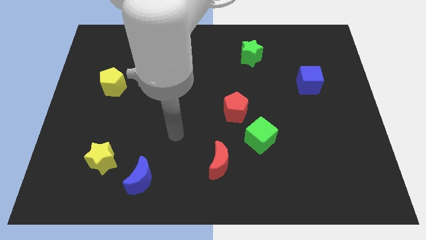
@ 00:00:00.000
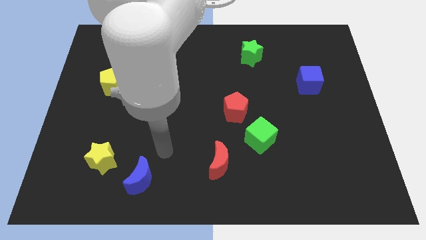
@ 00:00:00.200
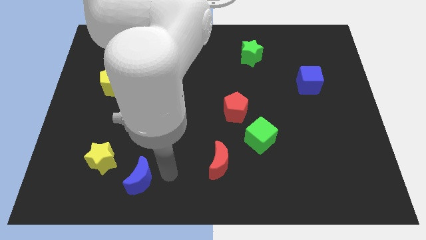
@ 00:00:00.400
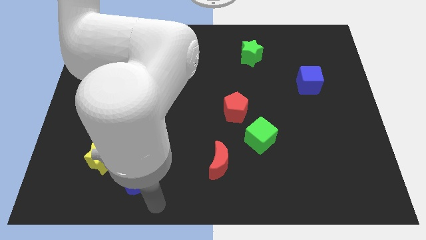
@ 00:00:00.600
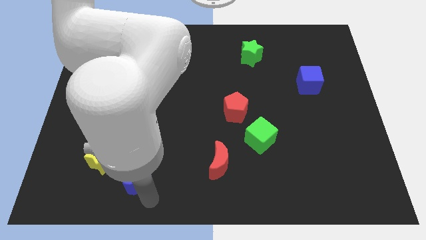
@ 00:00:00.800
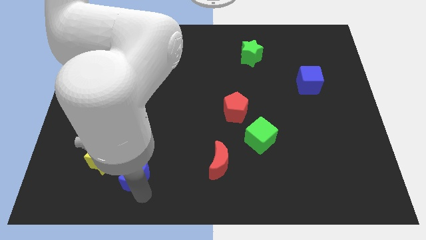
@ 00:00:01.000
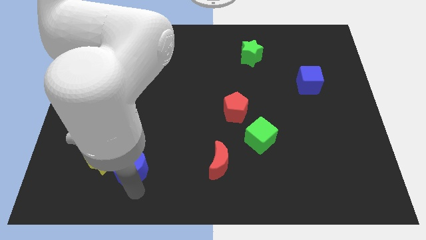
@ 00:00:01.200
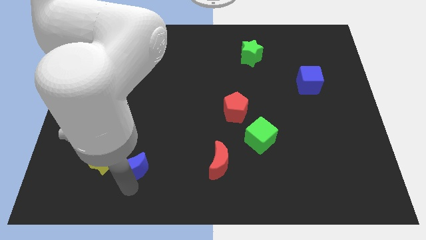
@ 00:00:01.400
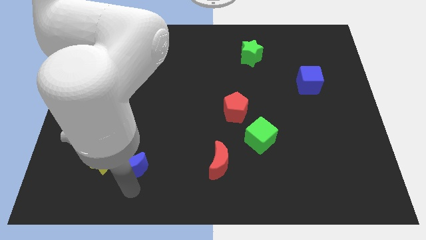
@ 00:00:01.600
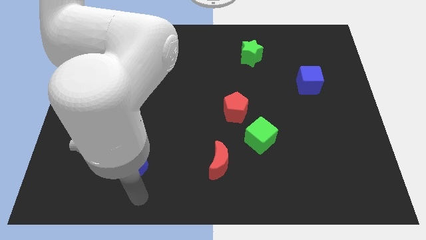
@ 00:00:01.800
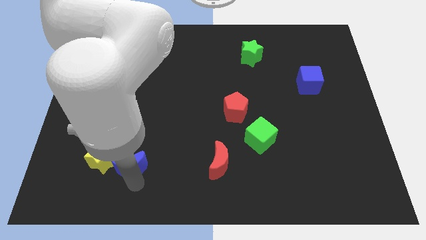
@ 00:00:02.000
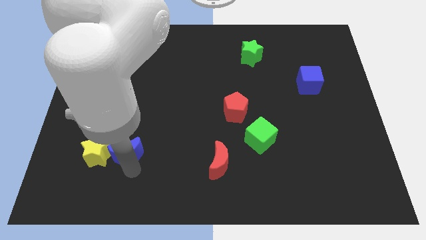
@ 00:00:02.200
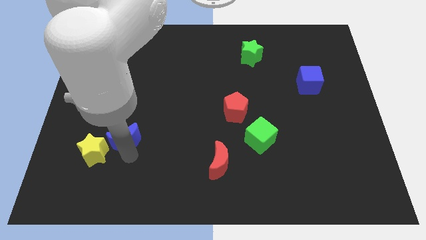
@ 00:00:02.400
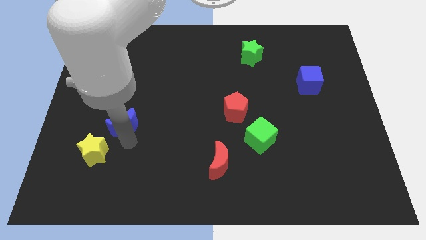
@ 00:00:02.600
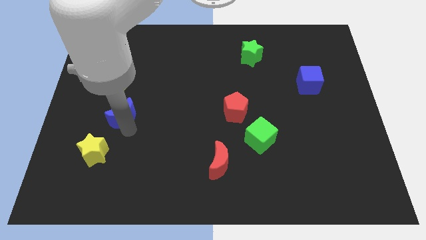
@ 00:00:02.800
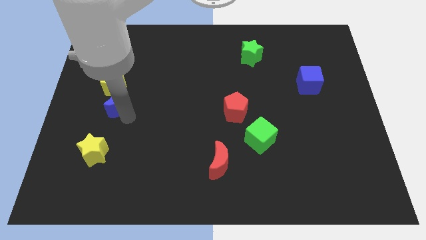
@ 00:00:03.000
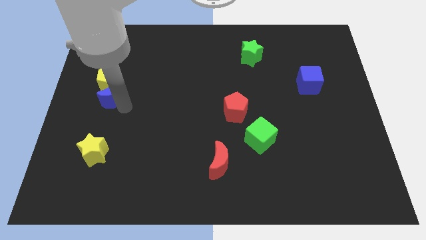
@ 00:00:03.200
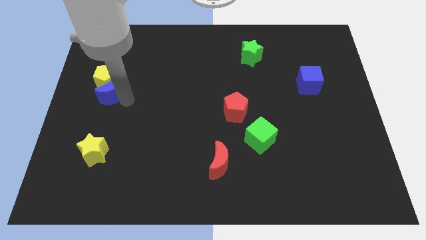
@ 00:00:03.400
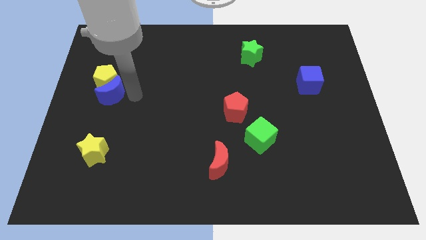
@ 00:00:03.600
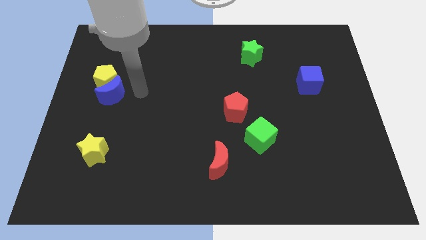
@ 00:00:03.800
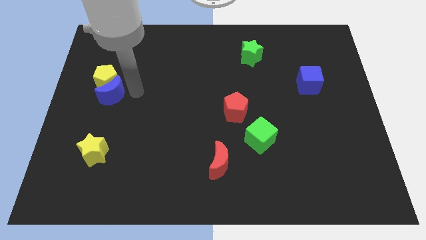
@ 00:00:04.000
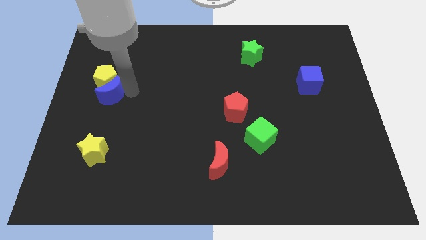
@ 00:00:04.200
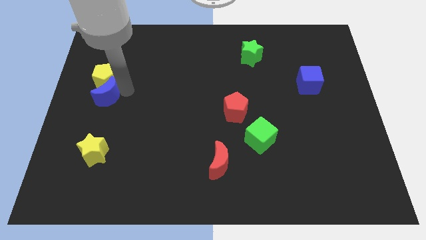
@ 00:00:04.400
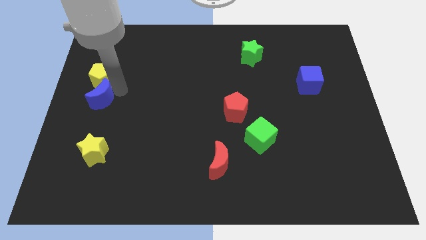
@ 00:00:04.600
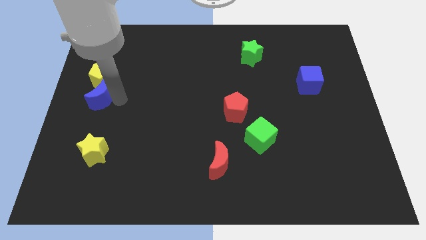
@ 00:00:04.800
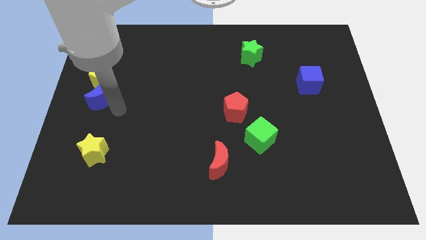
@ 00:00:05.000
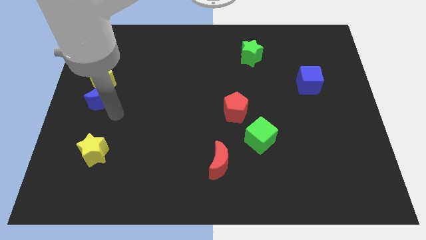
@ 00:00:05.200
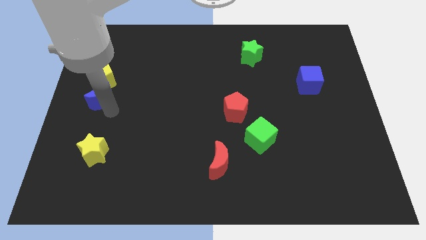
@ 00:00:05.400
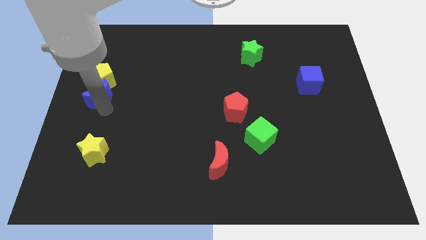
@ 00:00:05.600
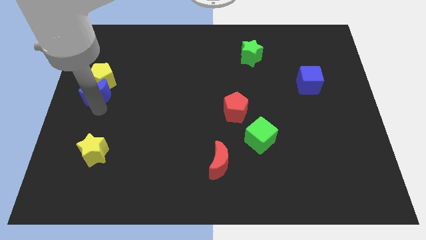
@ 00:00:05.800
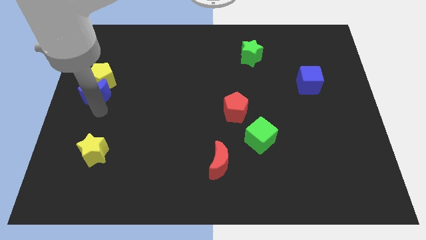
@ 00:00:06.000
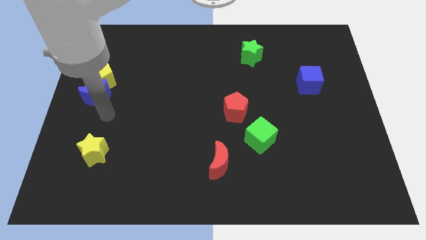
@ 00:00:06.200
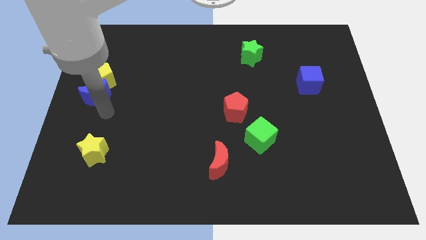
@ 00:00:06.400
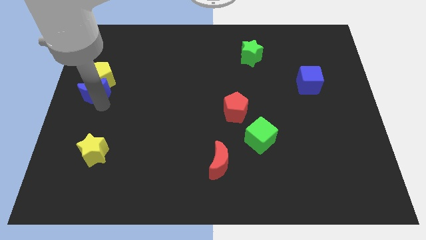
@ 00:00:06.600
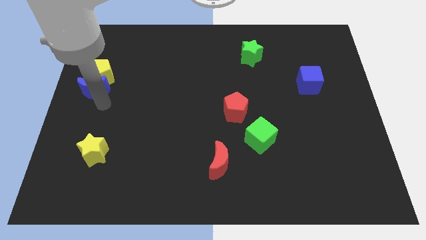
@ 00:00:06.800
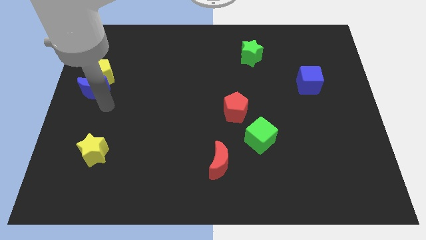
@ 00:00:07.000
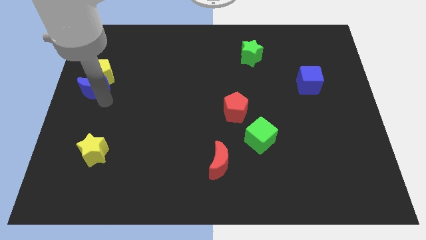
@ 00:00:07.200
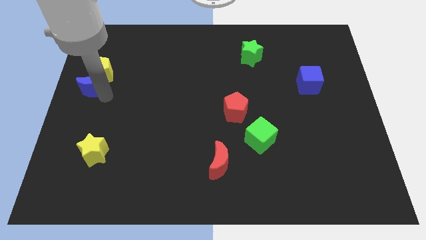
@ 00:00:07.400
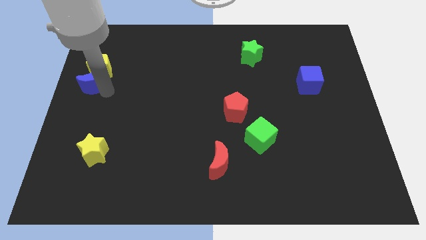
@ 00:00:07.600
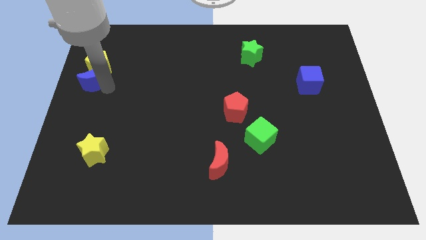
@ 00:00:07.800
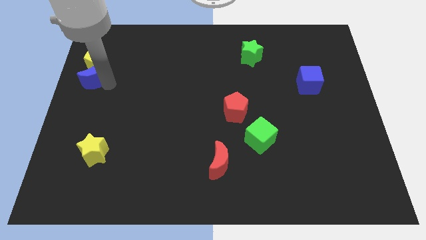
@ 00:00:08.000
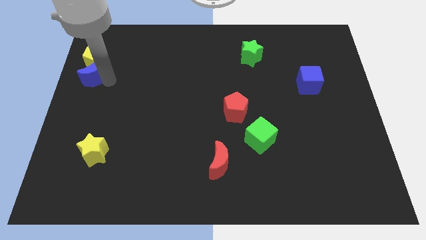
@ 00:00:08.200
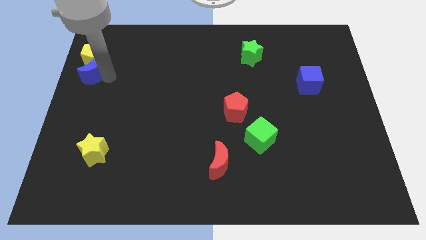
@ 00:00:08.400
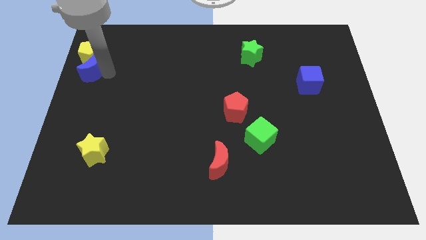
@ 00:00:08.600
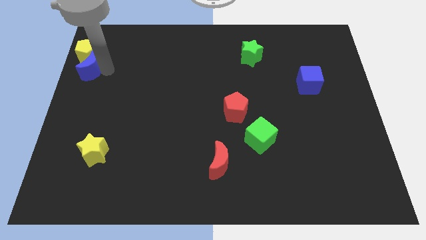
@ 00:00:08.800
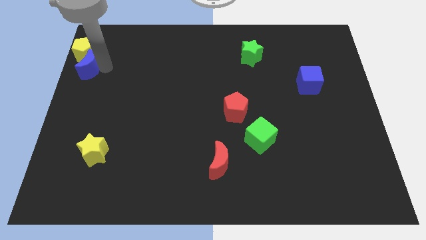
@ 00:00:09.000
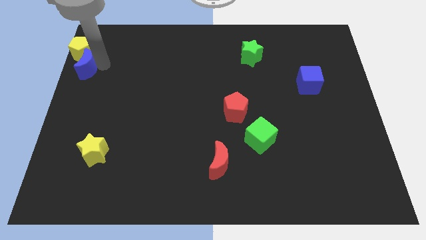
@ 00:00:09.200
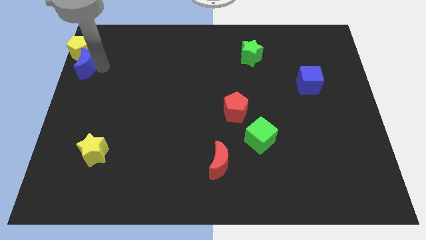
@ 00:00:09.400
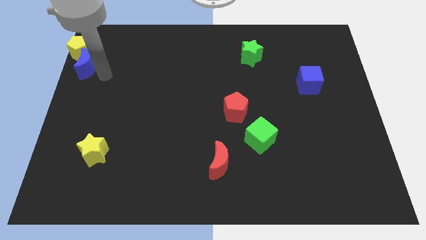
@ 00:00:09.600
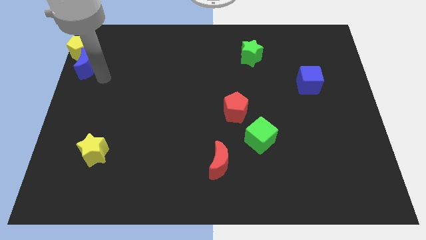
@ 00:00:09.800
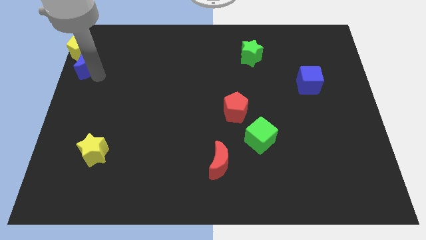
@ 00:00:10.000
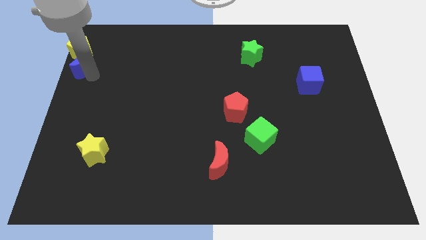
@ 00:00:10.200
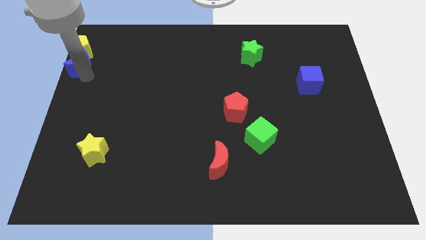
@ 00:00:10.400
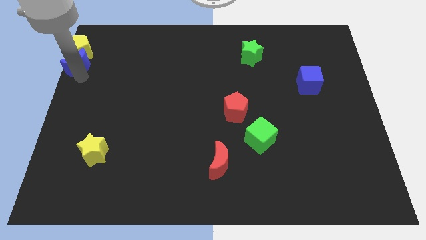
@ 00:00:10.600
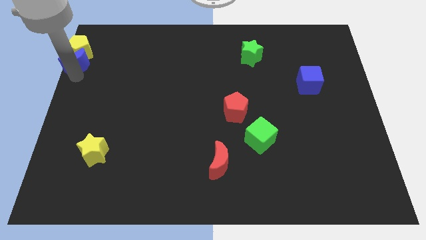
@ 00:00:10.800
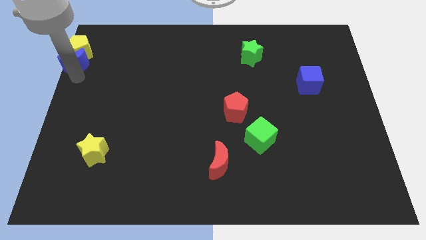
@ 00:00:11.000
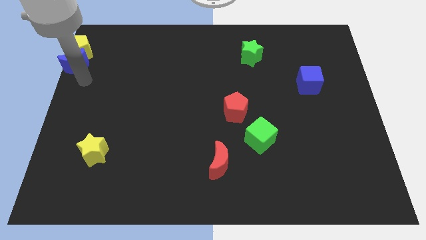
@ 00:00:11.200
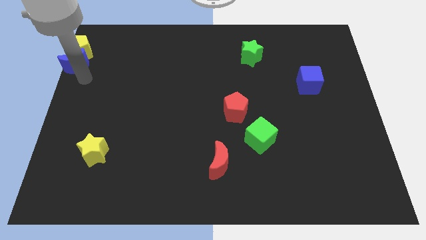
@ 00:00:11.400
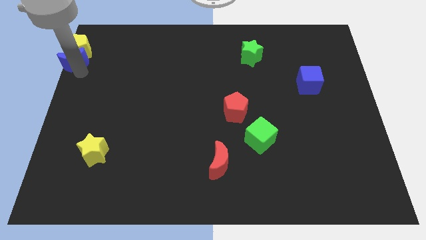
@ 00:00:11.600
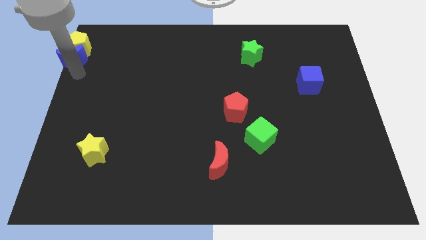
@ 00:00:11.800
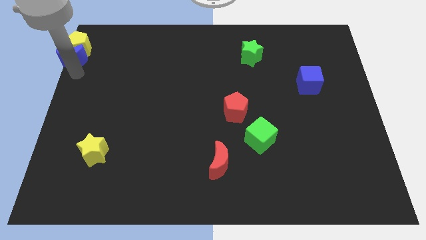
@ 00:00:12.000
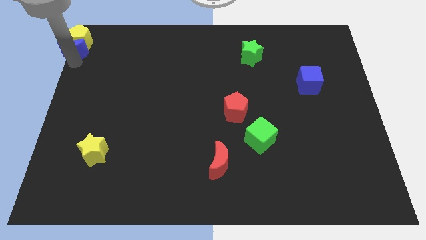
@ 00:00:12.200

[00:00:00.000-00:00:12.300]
move the blue moon to the upper left corner
